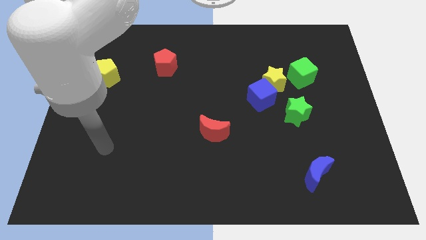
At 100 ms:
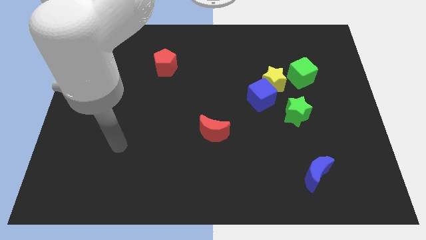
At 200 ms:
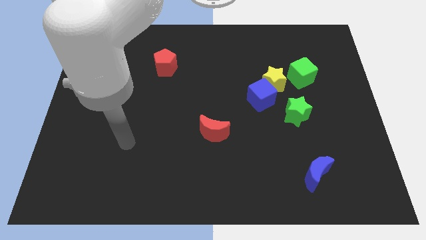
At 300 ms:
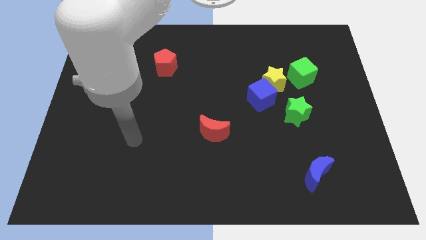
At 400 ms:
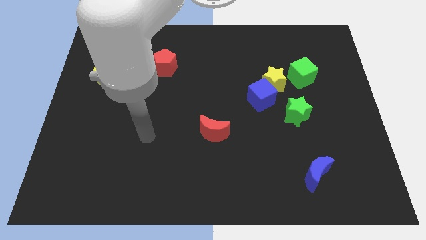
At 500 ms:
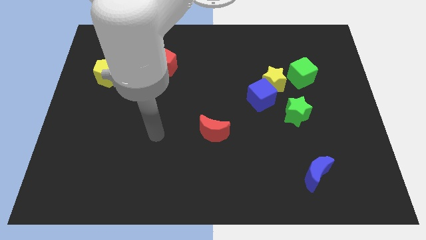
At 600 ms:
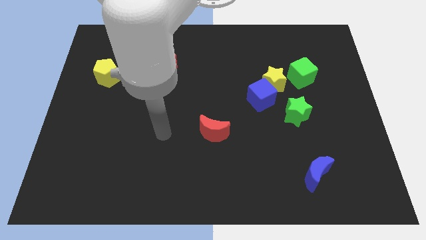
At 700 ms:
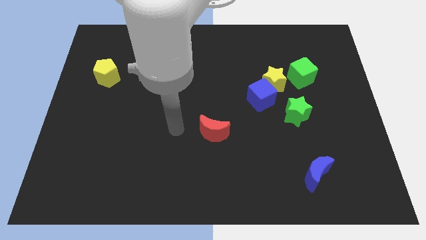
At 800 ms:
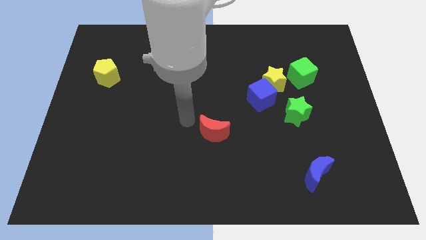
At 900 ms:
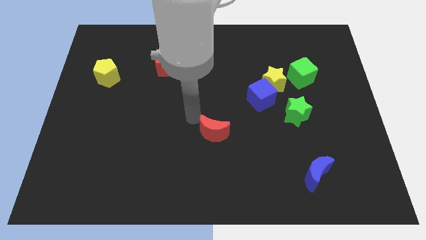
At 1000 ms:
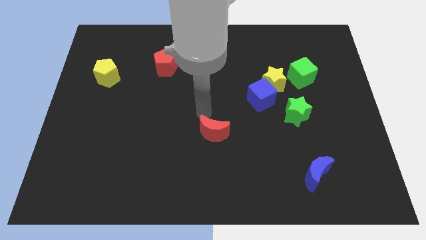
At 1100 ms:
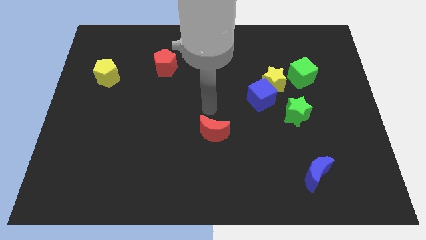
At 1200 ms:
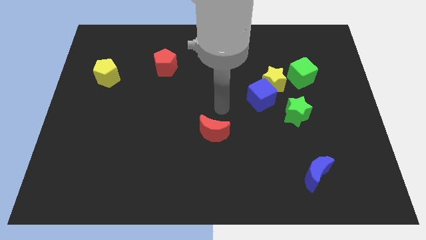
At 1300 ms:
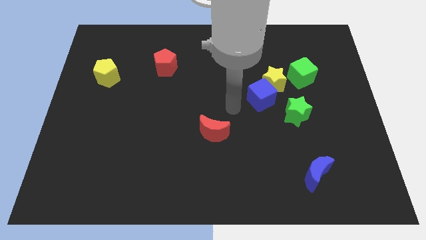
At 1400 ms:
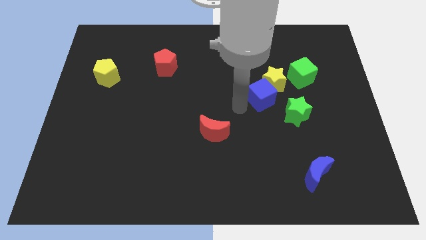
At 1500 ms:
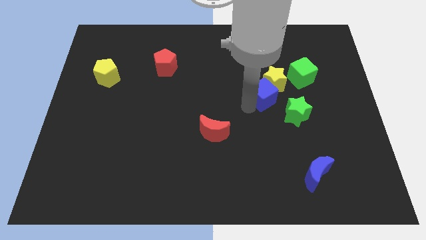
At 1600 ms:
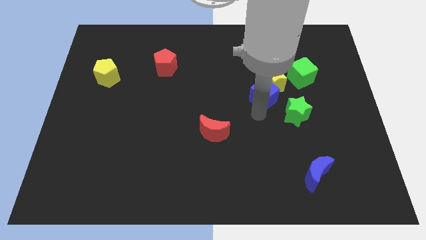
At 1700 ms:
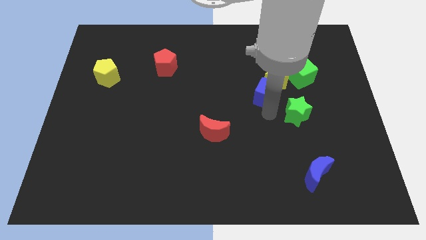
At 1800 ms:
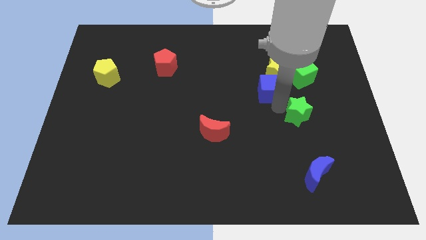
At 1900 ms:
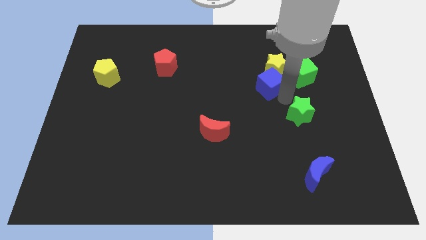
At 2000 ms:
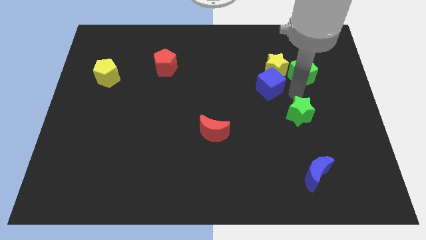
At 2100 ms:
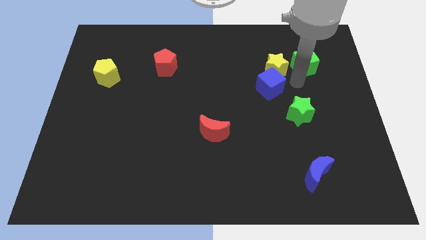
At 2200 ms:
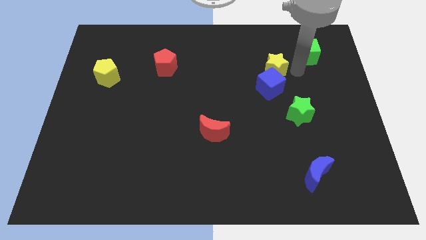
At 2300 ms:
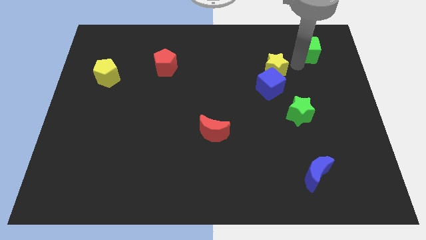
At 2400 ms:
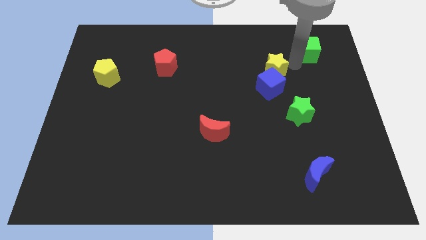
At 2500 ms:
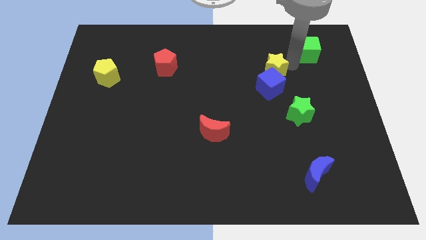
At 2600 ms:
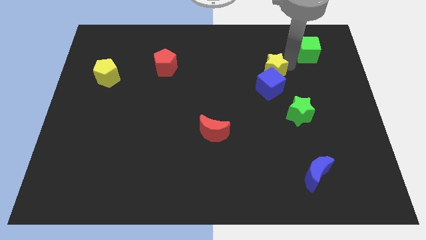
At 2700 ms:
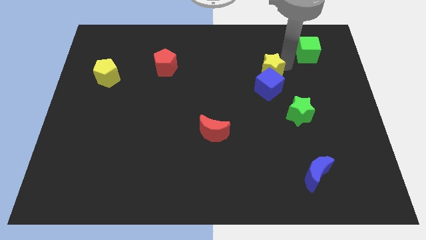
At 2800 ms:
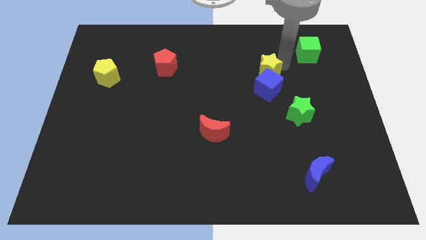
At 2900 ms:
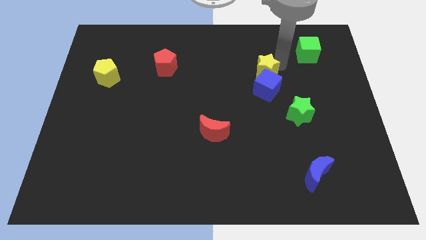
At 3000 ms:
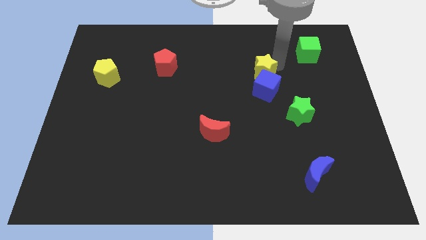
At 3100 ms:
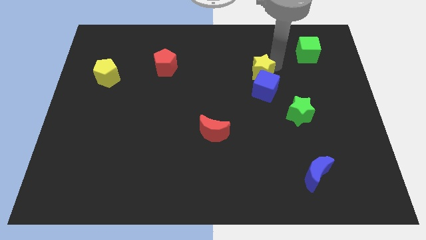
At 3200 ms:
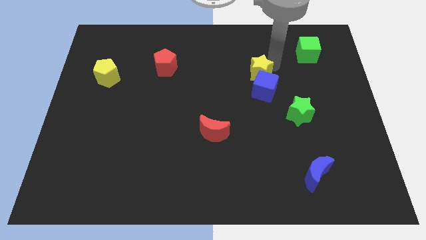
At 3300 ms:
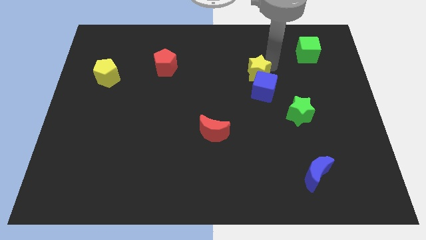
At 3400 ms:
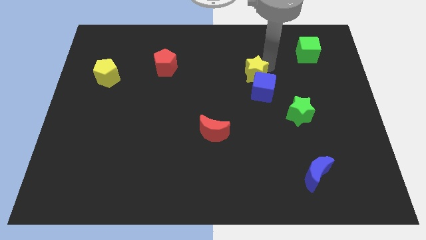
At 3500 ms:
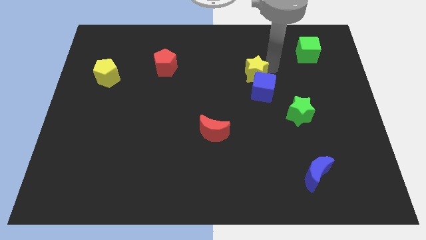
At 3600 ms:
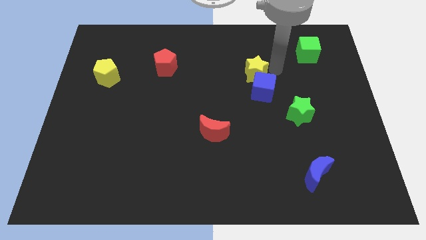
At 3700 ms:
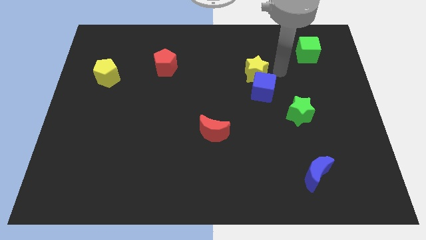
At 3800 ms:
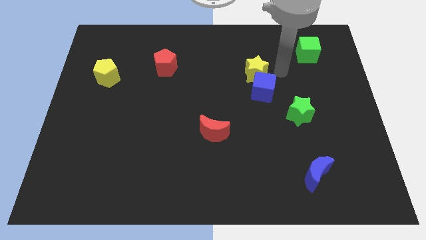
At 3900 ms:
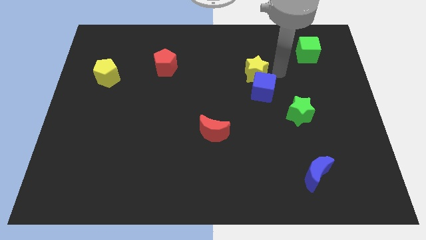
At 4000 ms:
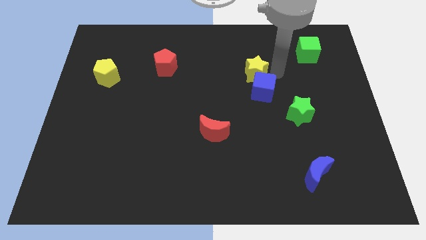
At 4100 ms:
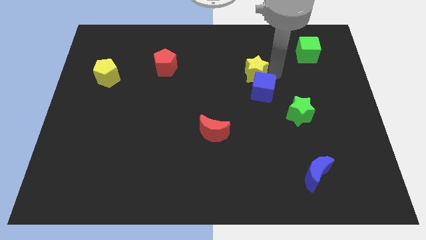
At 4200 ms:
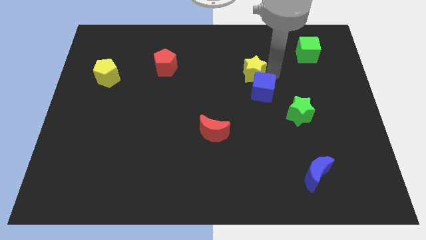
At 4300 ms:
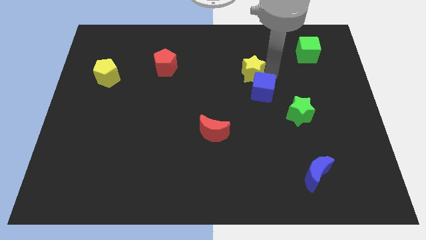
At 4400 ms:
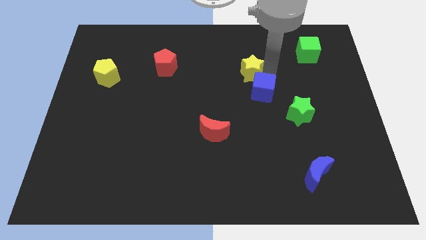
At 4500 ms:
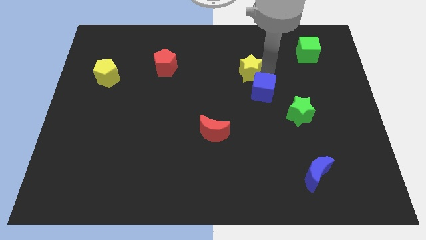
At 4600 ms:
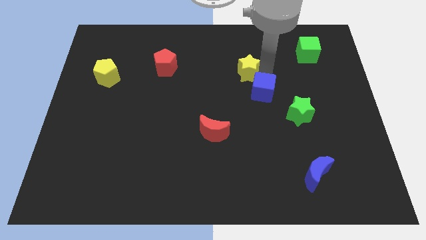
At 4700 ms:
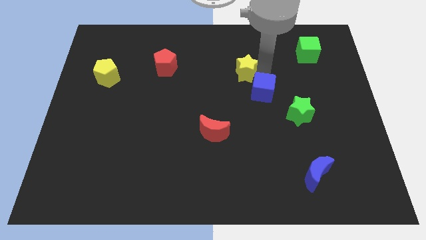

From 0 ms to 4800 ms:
move the yellow star away from the blue cube and green cube

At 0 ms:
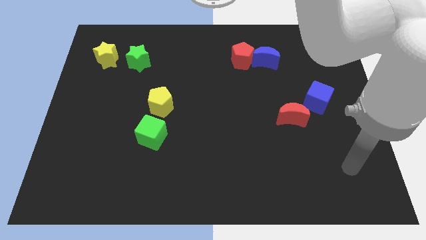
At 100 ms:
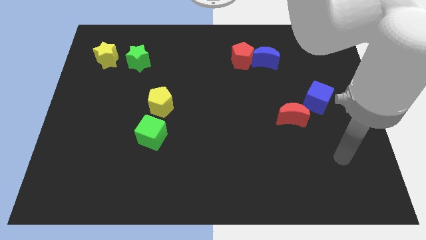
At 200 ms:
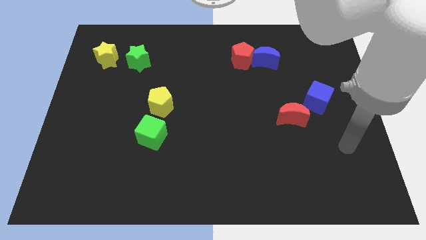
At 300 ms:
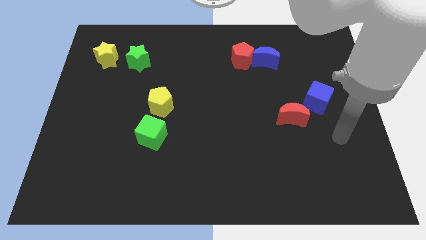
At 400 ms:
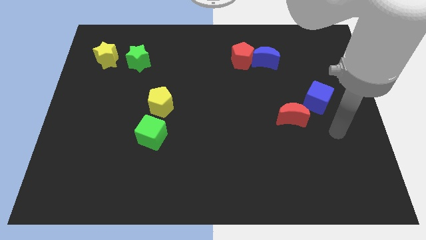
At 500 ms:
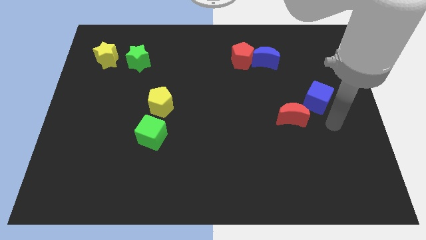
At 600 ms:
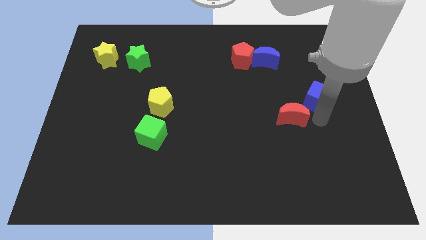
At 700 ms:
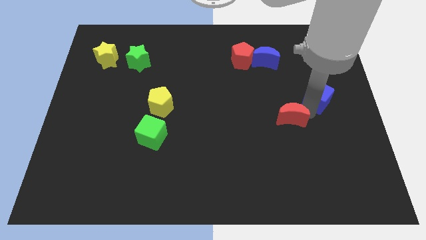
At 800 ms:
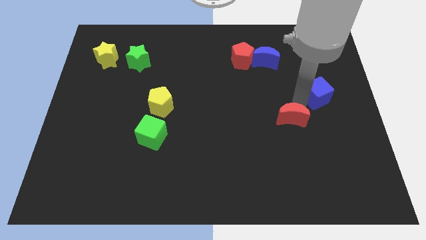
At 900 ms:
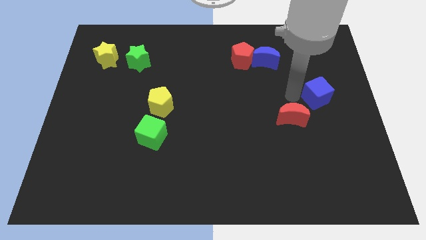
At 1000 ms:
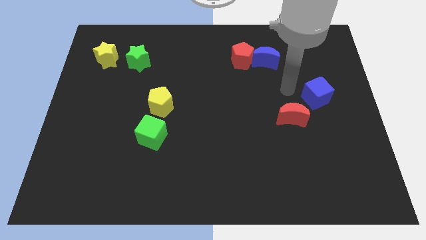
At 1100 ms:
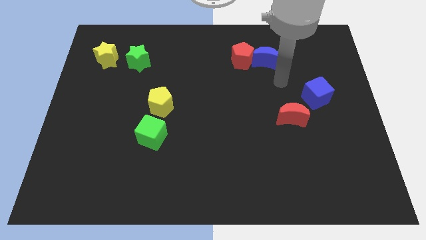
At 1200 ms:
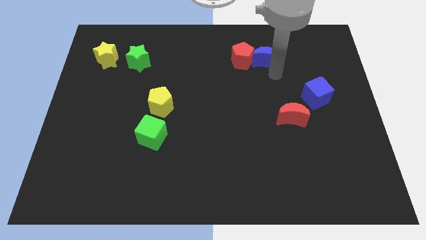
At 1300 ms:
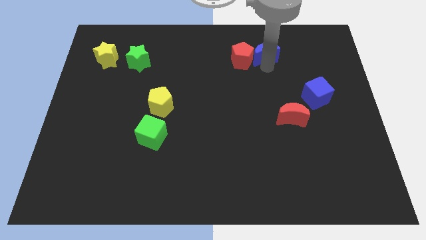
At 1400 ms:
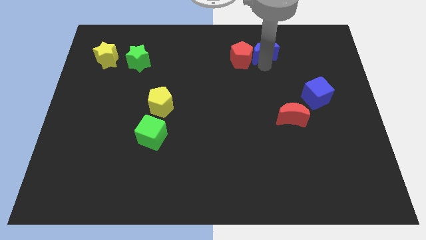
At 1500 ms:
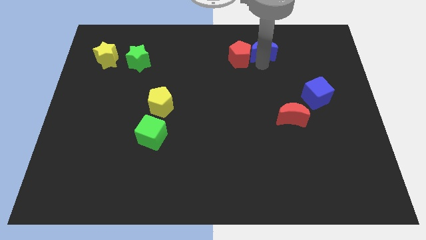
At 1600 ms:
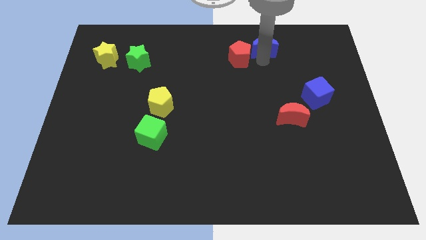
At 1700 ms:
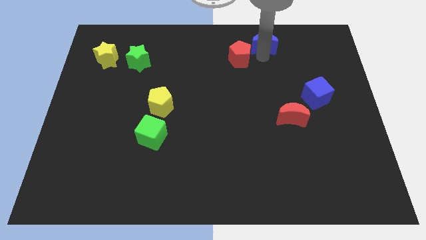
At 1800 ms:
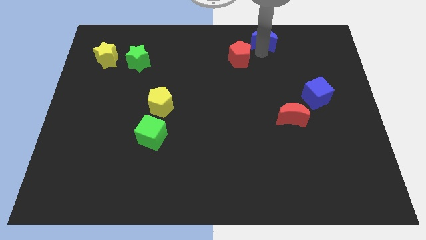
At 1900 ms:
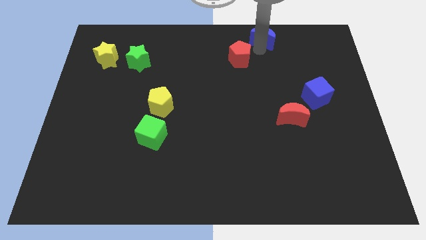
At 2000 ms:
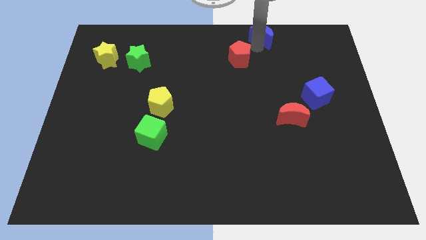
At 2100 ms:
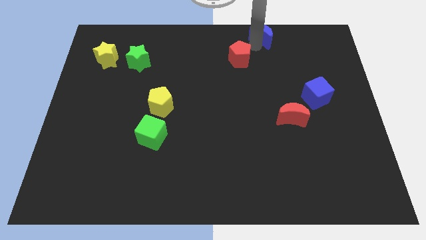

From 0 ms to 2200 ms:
separate the red pentagon from the blue moon

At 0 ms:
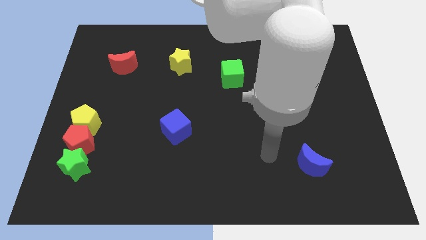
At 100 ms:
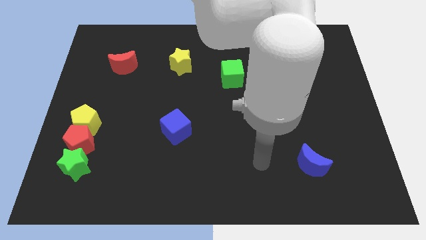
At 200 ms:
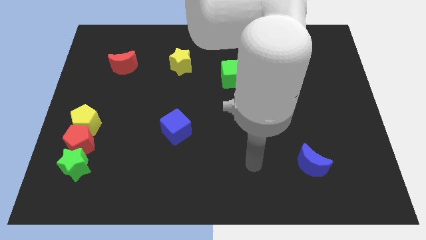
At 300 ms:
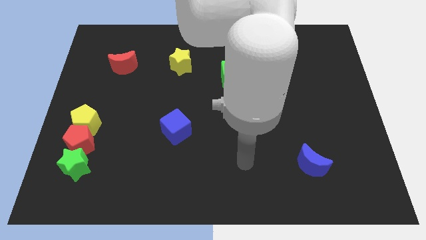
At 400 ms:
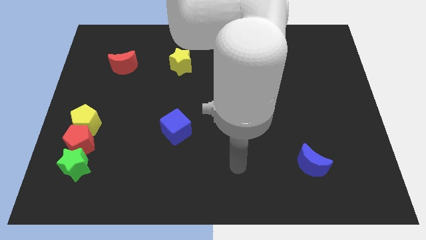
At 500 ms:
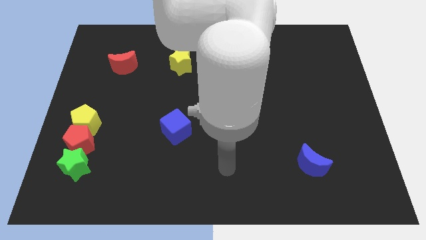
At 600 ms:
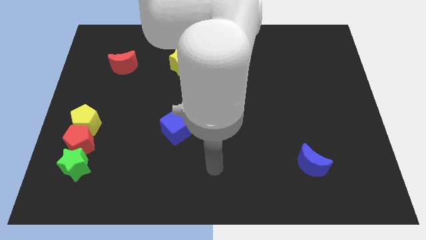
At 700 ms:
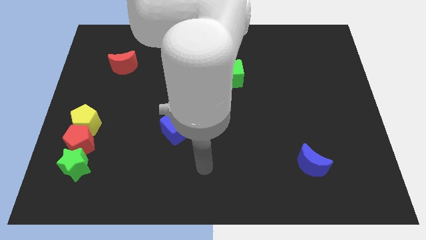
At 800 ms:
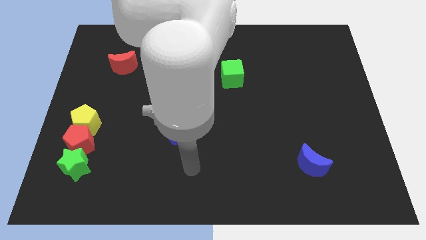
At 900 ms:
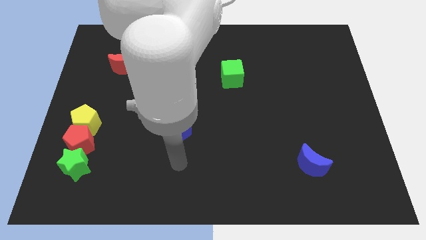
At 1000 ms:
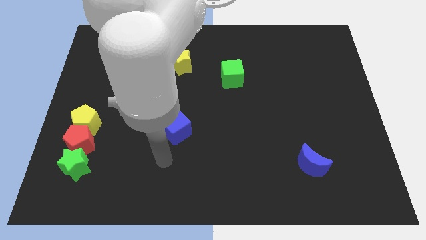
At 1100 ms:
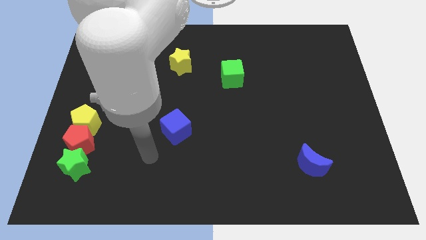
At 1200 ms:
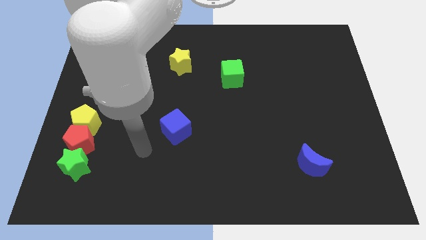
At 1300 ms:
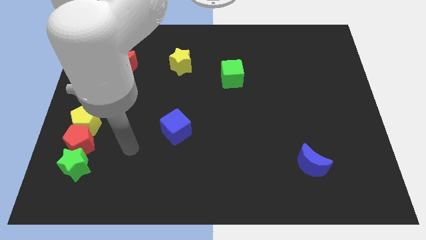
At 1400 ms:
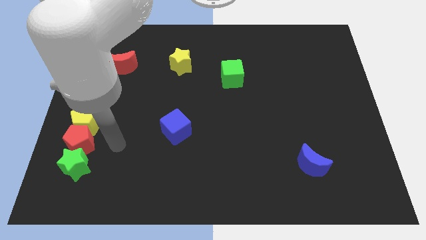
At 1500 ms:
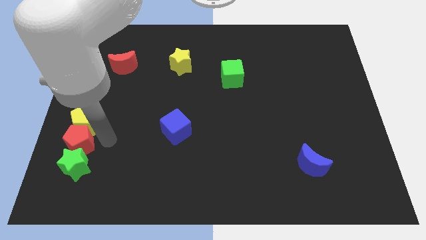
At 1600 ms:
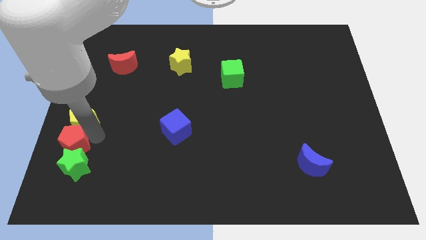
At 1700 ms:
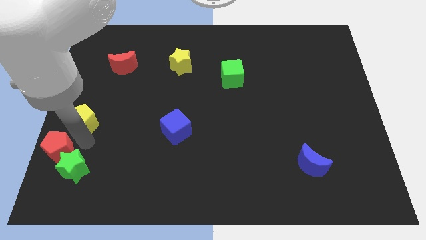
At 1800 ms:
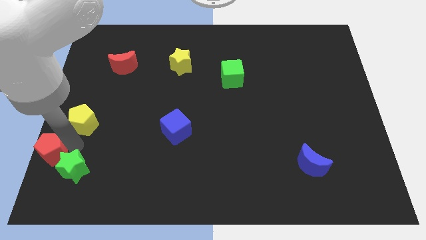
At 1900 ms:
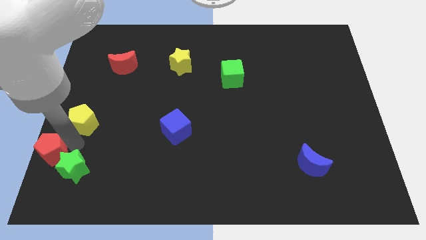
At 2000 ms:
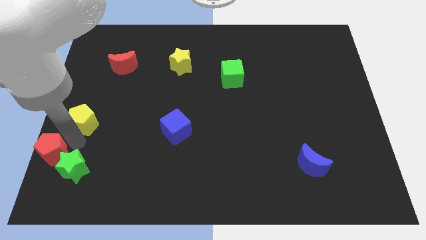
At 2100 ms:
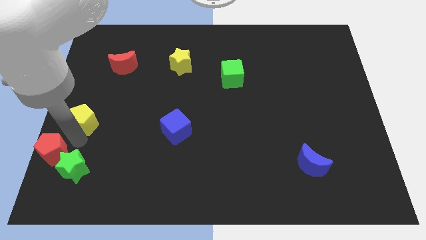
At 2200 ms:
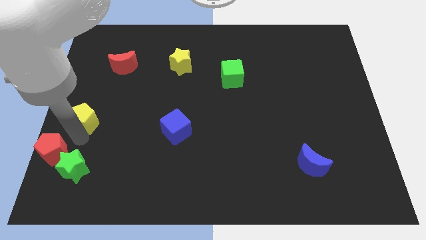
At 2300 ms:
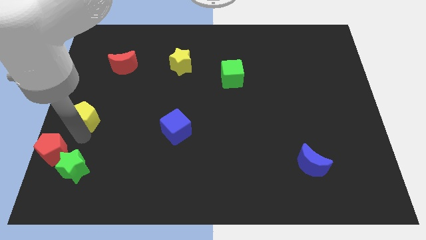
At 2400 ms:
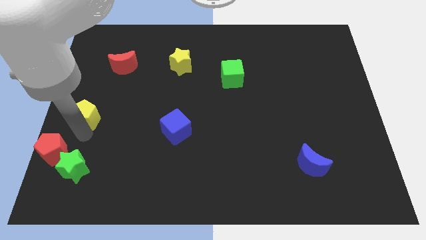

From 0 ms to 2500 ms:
pull the yellow pentagon apart from the red pentagon
